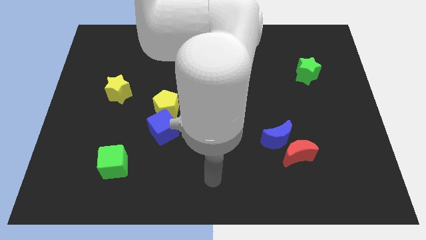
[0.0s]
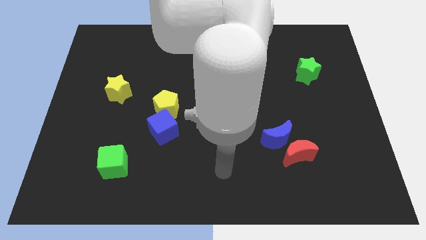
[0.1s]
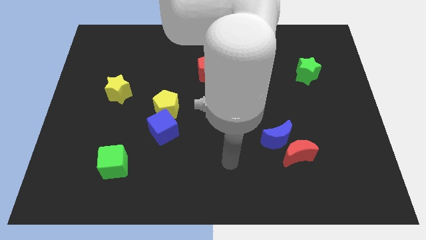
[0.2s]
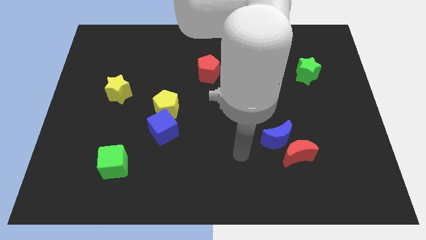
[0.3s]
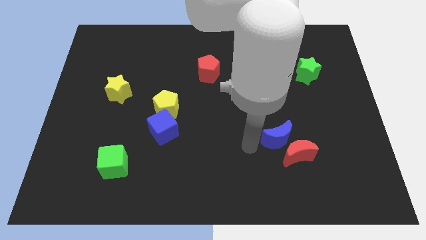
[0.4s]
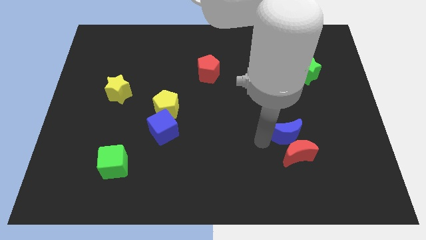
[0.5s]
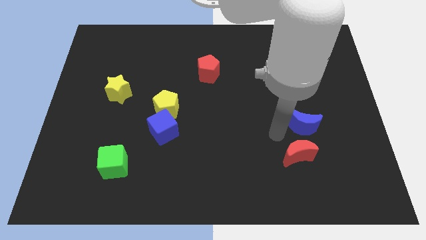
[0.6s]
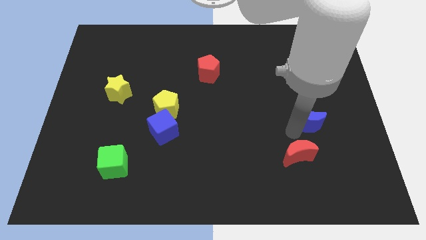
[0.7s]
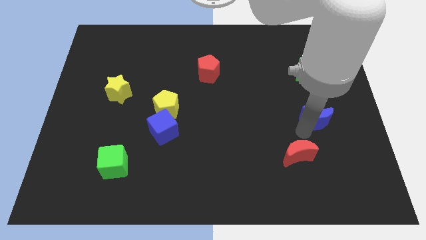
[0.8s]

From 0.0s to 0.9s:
separate the red moon from the blue moon

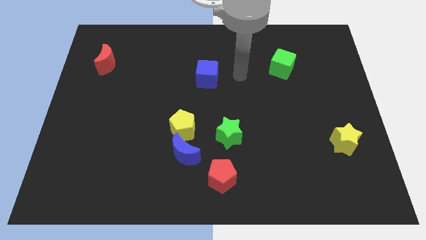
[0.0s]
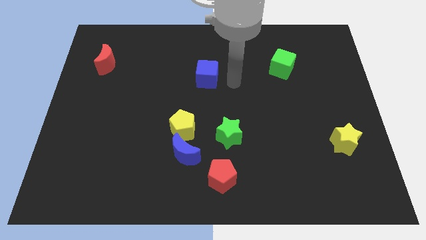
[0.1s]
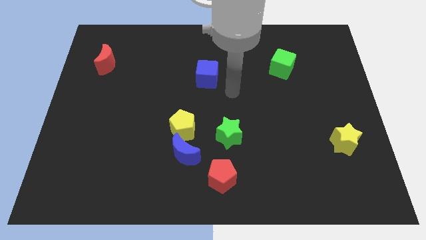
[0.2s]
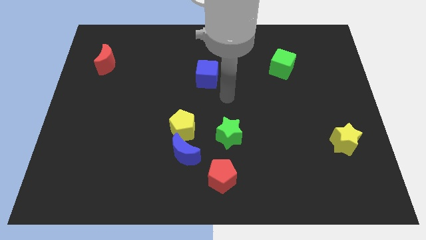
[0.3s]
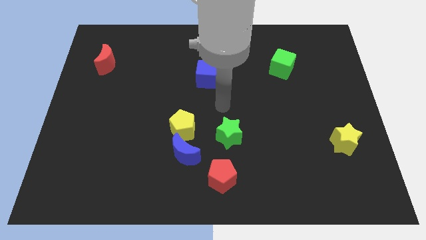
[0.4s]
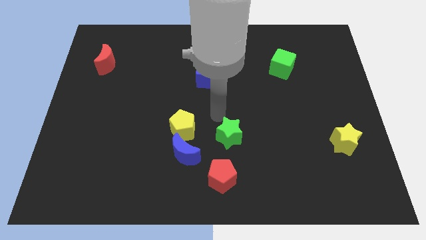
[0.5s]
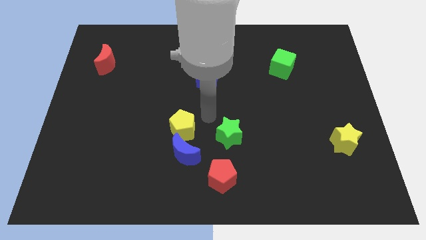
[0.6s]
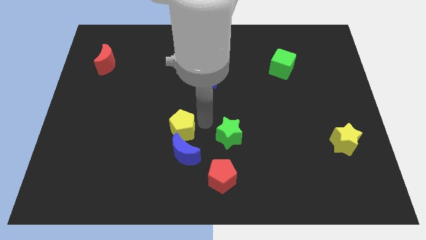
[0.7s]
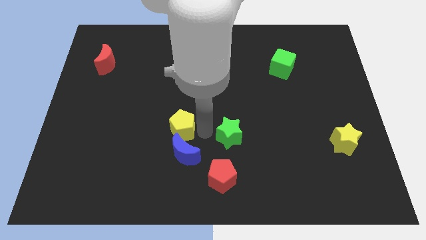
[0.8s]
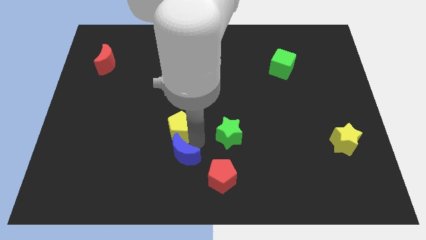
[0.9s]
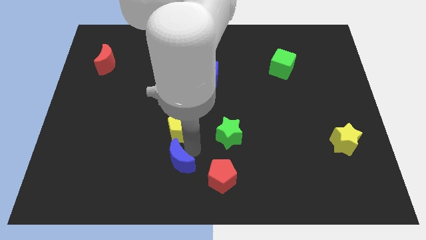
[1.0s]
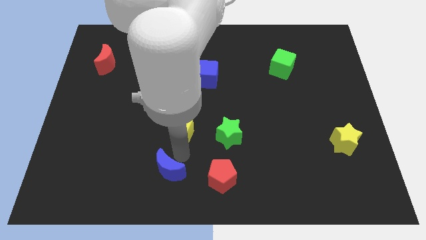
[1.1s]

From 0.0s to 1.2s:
pull the yellow pentagon apart from the blue moon

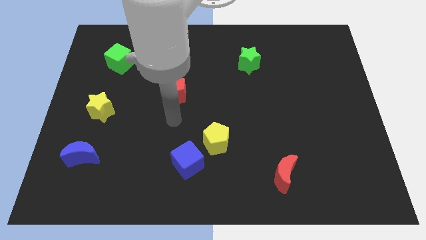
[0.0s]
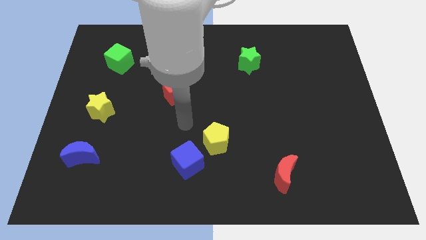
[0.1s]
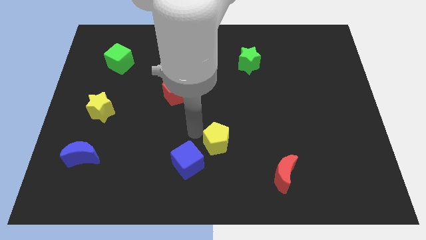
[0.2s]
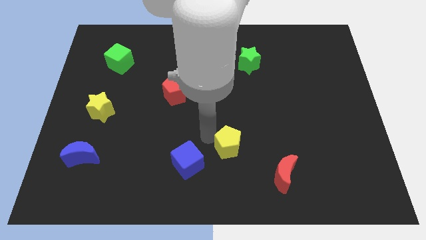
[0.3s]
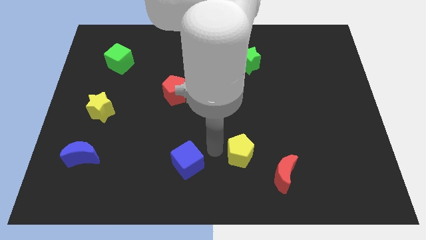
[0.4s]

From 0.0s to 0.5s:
pull the blue cube apart from the yellow pentagon

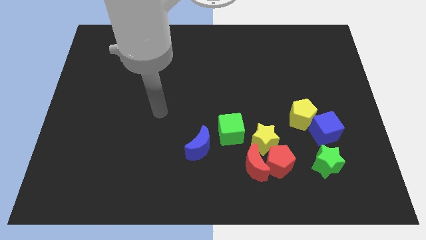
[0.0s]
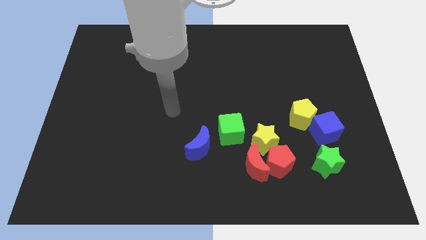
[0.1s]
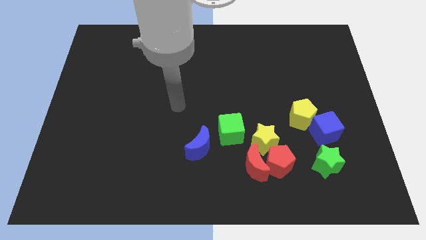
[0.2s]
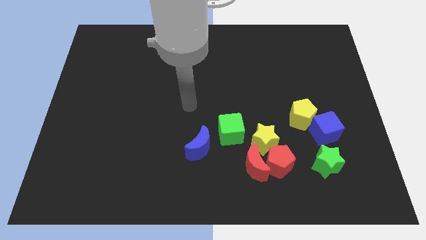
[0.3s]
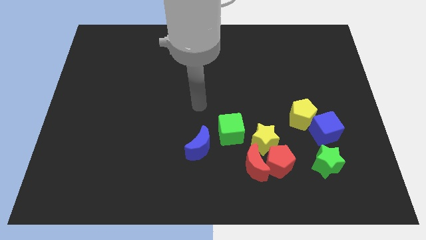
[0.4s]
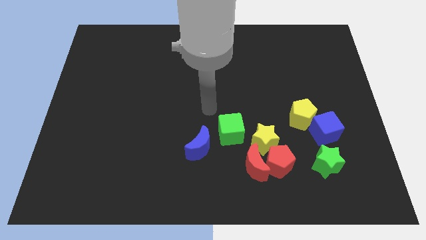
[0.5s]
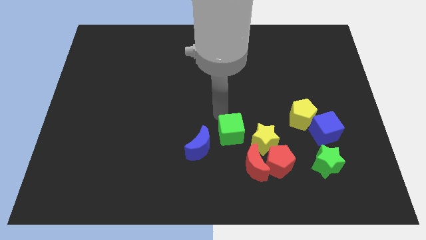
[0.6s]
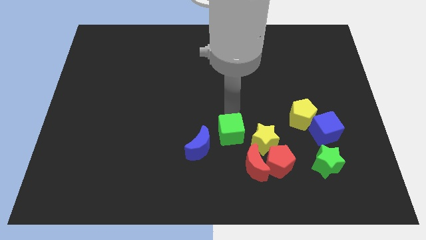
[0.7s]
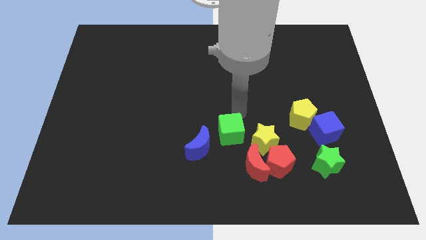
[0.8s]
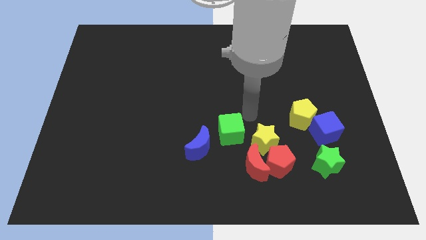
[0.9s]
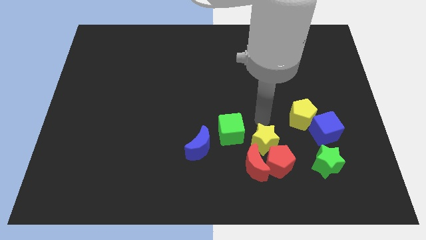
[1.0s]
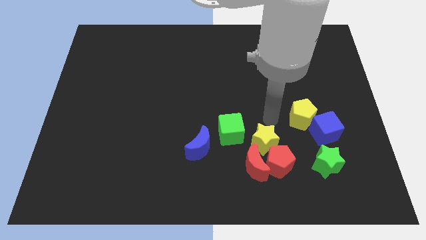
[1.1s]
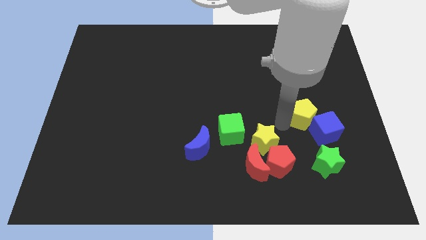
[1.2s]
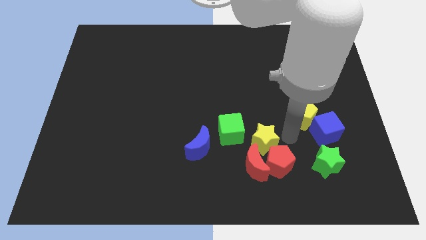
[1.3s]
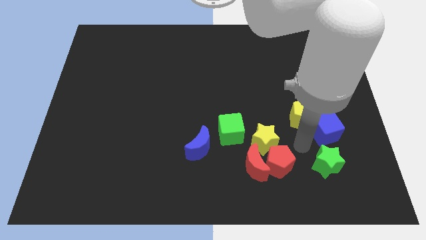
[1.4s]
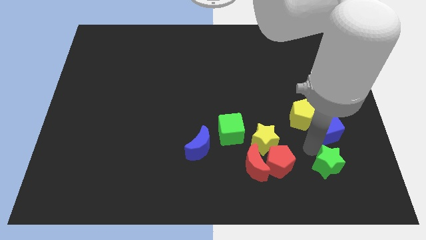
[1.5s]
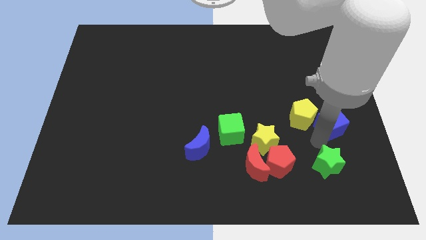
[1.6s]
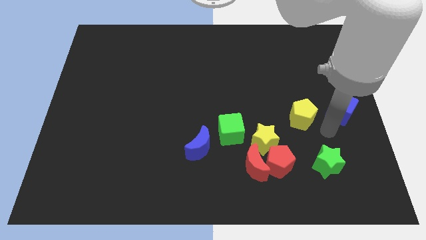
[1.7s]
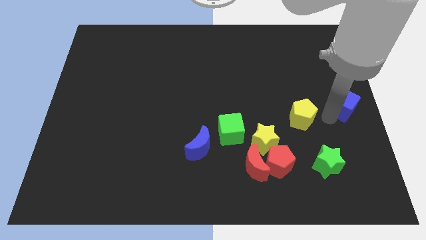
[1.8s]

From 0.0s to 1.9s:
separate the yellow pentagon from the blue cube

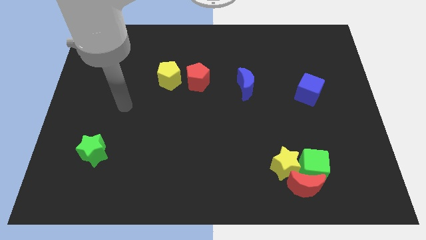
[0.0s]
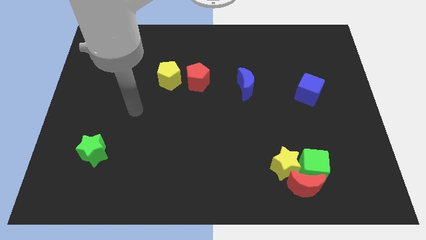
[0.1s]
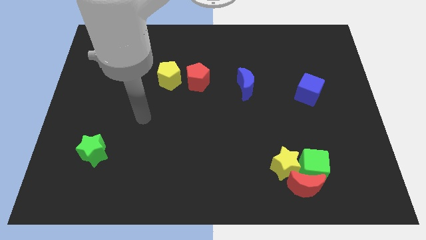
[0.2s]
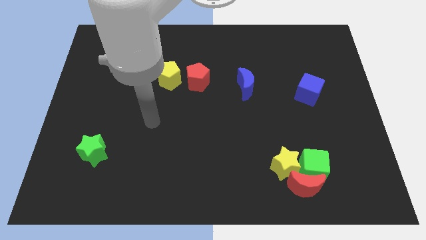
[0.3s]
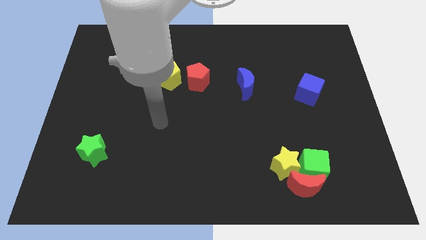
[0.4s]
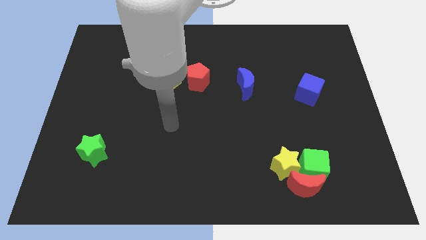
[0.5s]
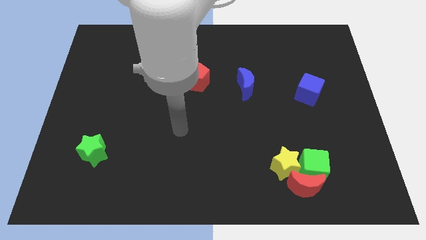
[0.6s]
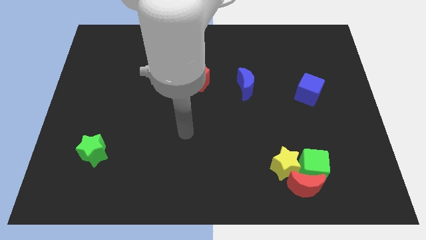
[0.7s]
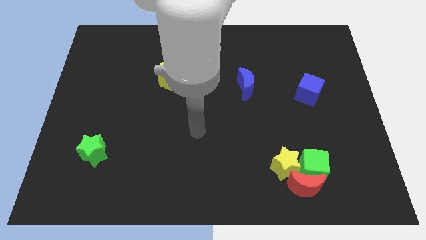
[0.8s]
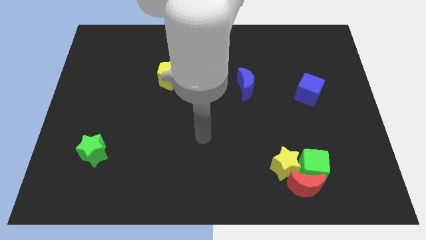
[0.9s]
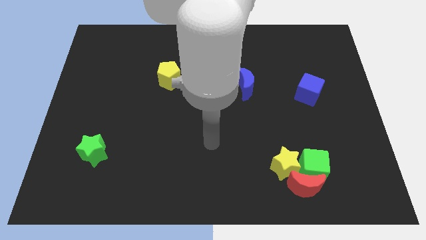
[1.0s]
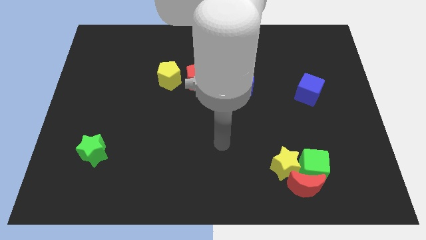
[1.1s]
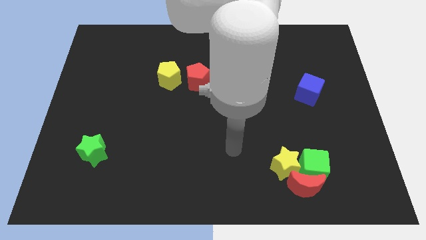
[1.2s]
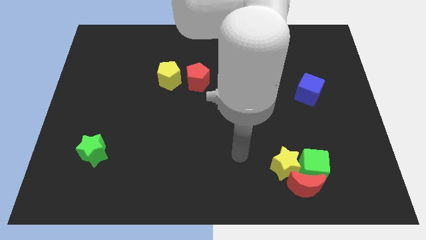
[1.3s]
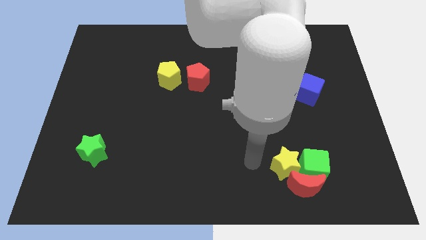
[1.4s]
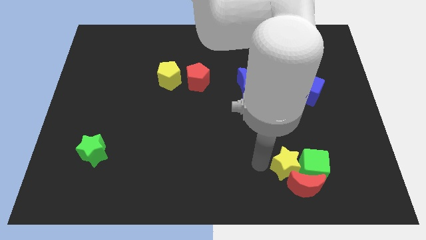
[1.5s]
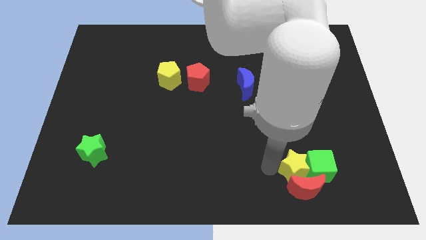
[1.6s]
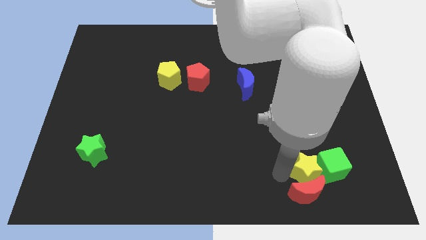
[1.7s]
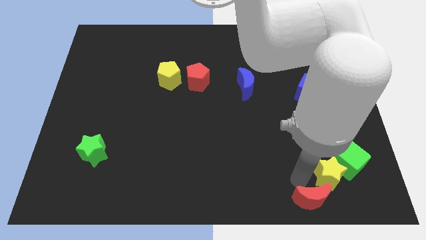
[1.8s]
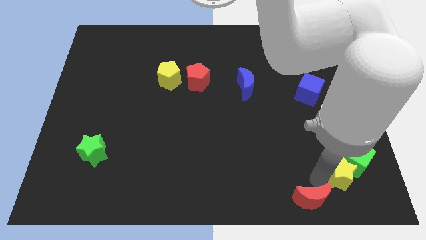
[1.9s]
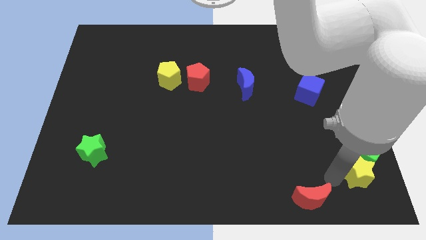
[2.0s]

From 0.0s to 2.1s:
pull the green cube apart from the red moon and yellow star

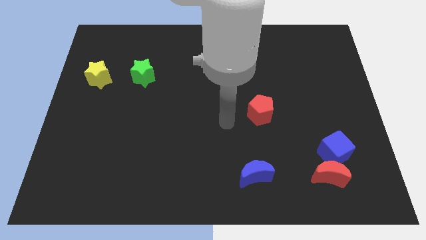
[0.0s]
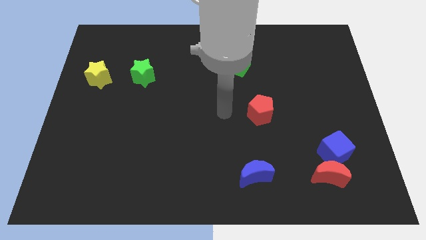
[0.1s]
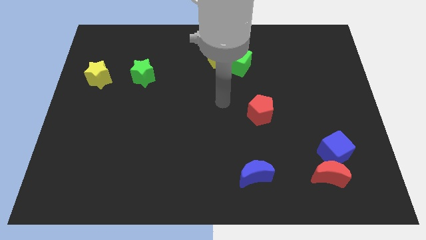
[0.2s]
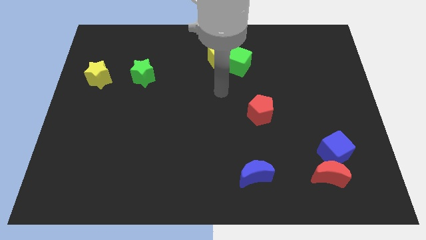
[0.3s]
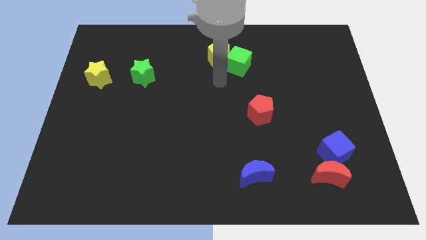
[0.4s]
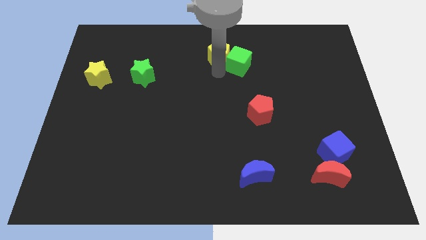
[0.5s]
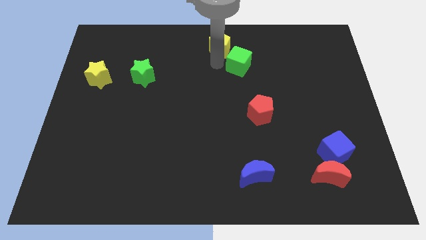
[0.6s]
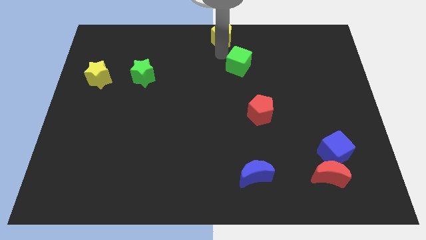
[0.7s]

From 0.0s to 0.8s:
separate the green cube from the yellow pentagon

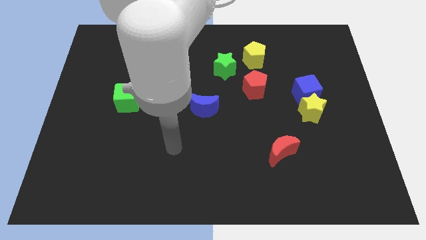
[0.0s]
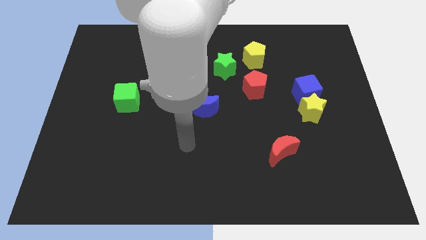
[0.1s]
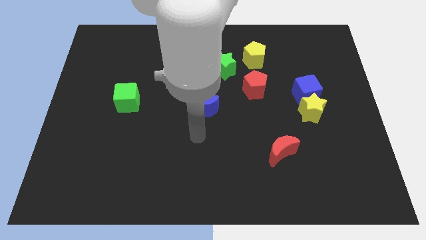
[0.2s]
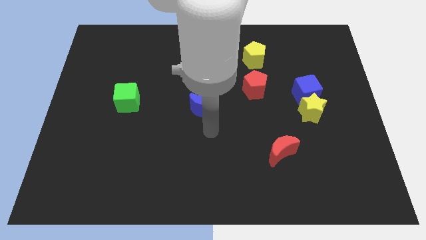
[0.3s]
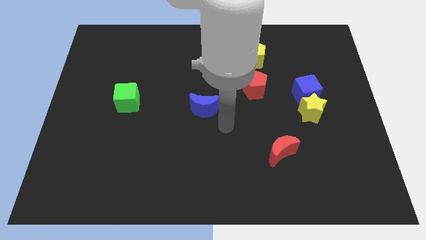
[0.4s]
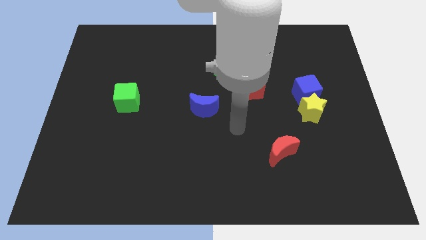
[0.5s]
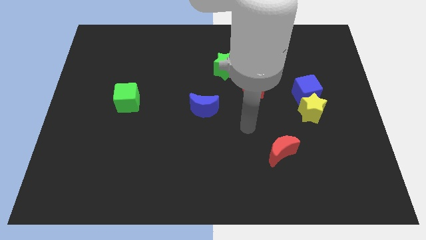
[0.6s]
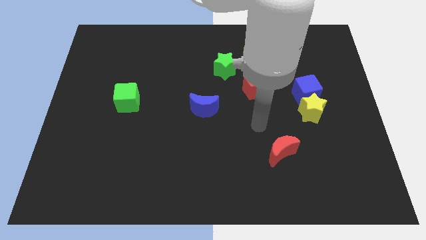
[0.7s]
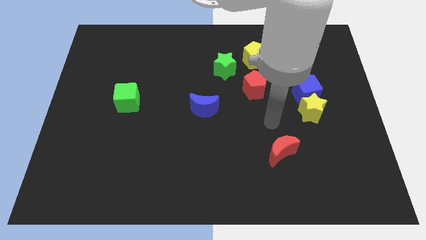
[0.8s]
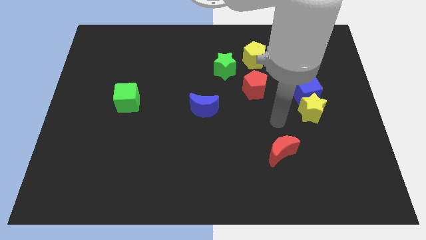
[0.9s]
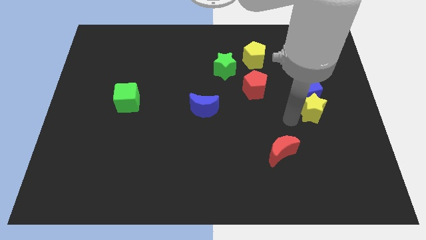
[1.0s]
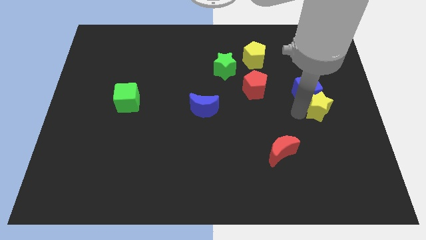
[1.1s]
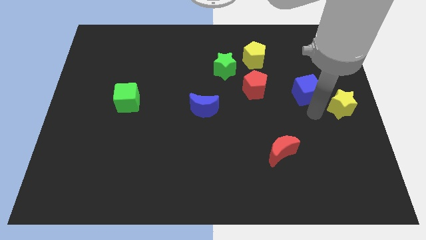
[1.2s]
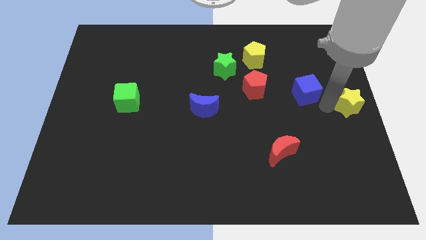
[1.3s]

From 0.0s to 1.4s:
pull the blue cube apart from the yellow star

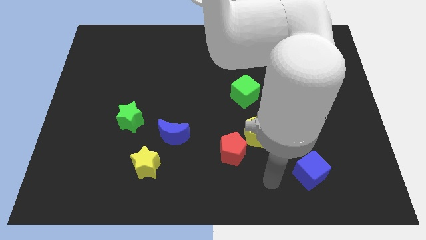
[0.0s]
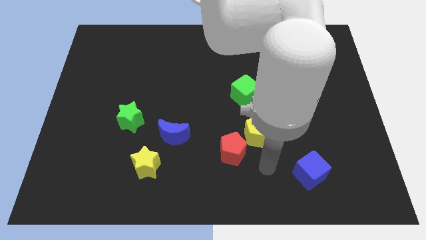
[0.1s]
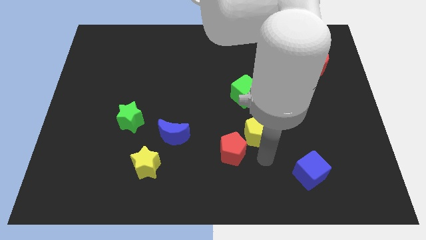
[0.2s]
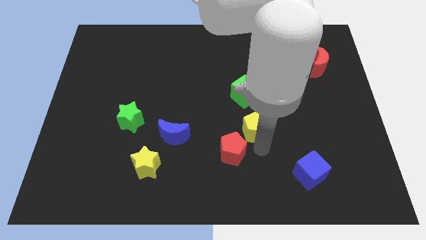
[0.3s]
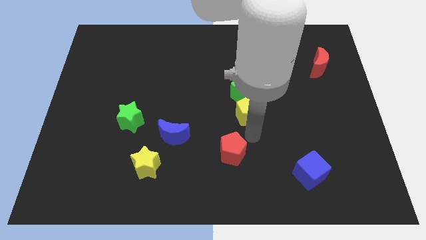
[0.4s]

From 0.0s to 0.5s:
move the red pentagon away from the yellow pentagon

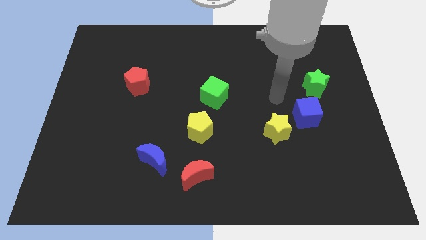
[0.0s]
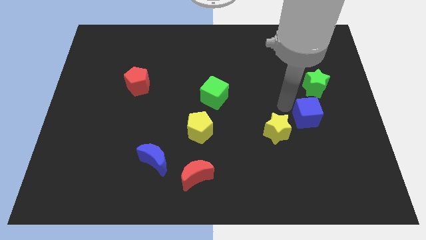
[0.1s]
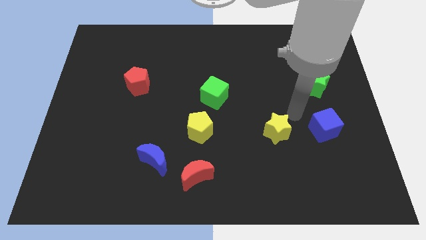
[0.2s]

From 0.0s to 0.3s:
separate the yellow star from the blue cube
